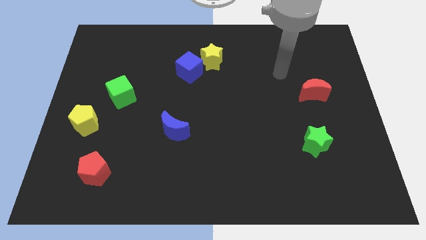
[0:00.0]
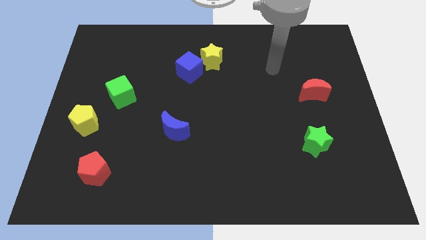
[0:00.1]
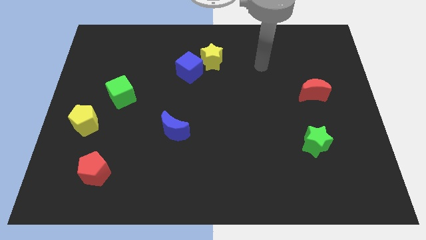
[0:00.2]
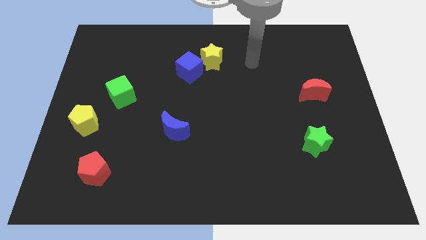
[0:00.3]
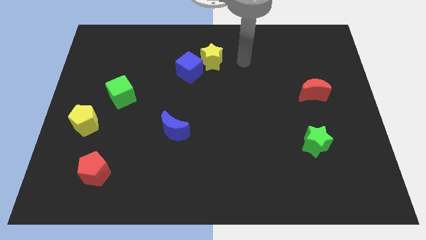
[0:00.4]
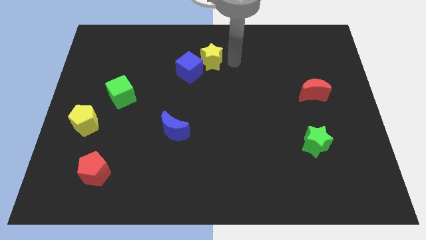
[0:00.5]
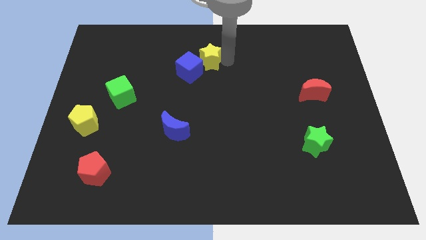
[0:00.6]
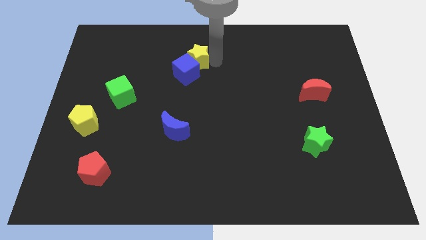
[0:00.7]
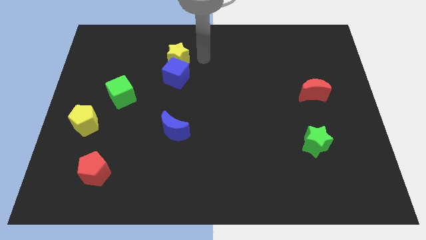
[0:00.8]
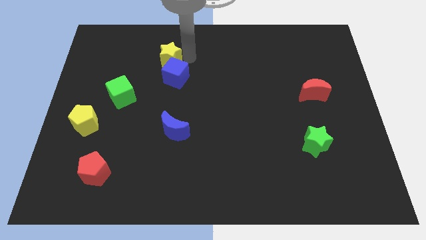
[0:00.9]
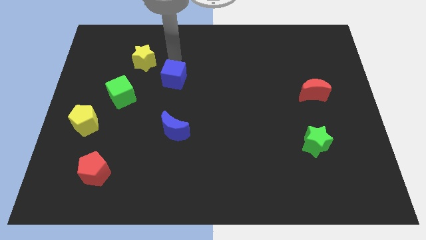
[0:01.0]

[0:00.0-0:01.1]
move the blue cube away from the yellow star

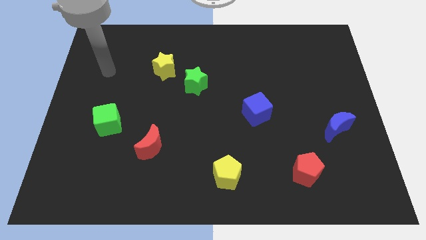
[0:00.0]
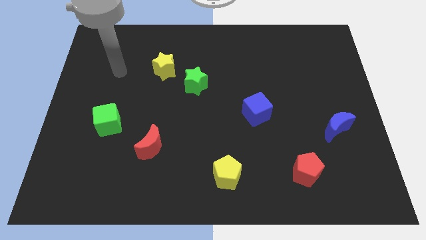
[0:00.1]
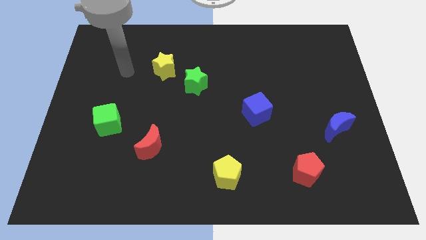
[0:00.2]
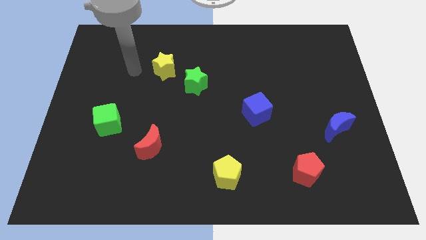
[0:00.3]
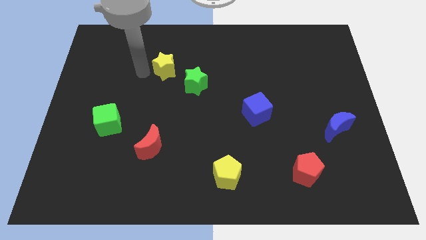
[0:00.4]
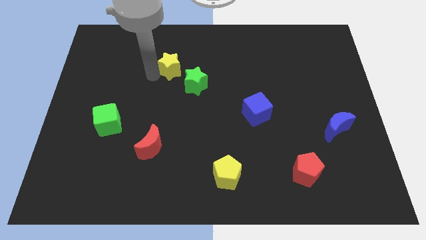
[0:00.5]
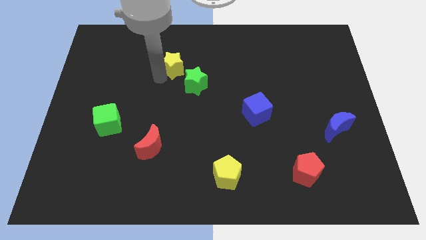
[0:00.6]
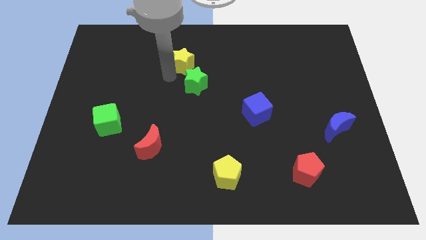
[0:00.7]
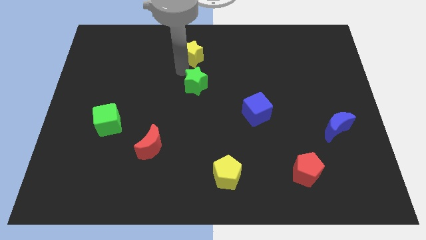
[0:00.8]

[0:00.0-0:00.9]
pull the green star apart from the yellow star

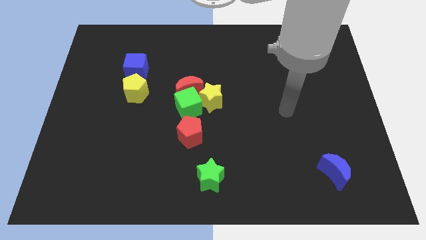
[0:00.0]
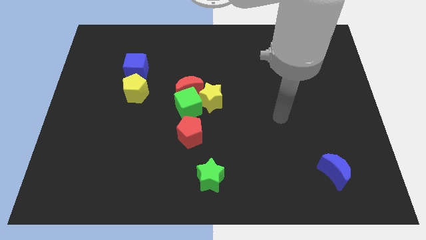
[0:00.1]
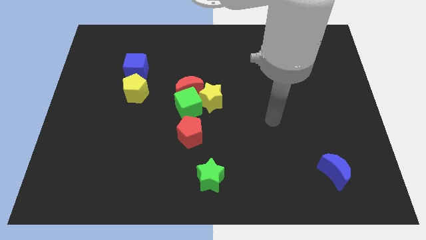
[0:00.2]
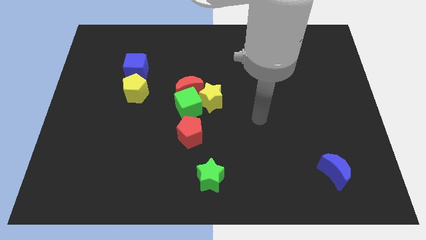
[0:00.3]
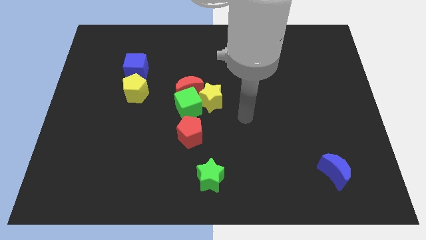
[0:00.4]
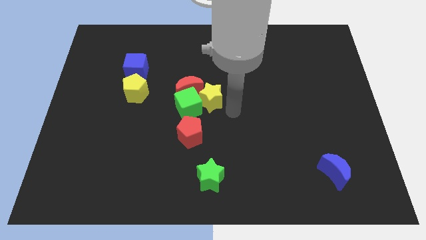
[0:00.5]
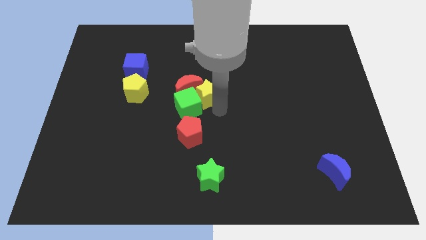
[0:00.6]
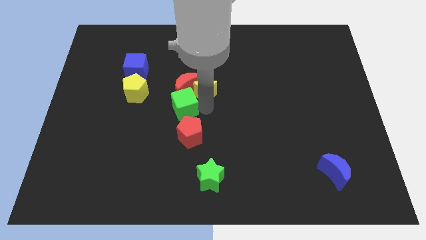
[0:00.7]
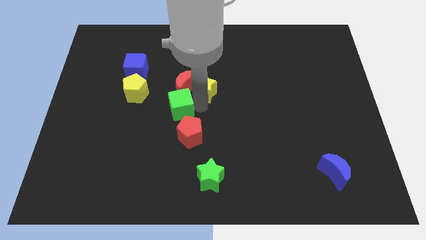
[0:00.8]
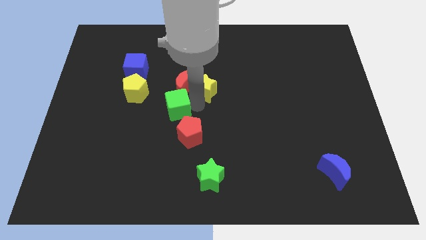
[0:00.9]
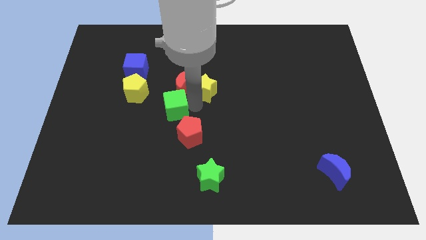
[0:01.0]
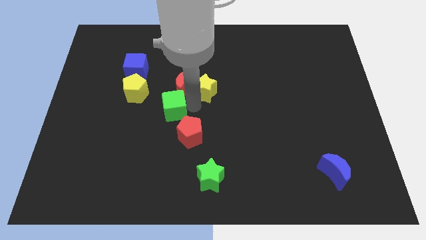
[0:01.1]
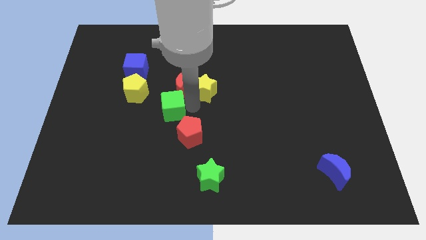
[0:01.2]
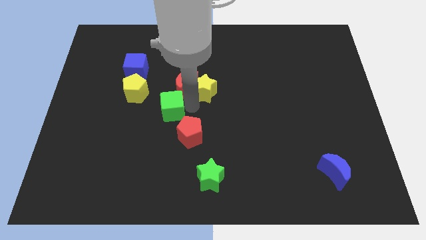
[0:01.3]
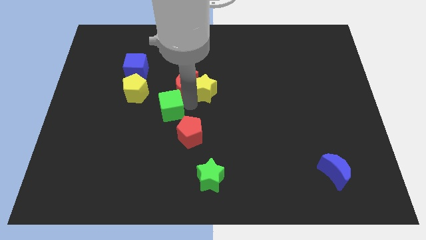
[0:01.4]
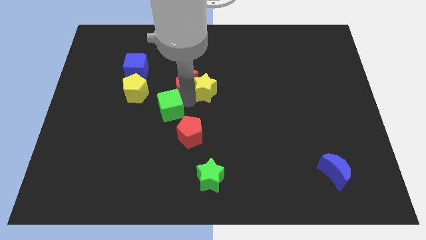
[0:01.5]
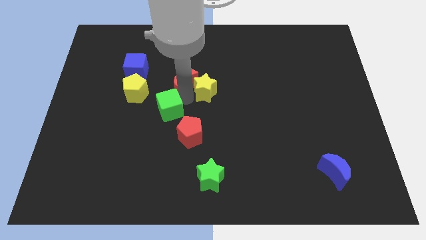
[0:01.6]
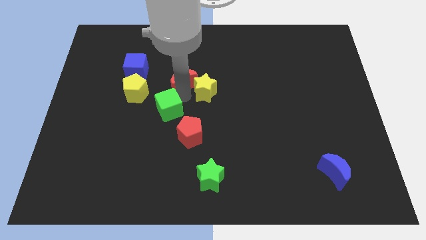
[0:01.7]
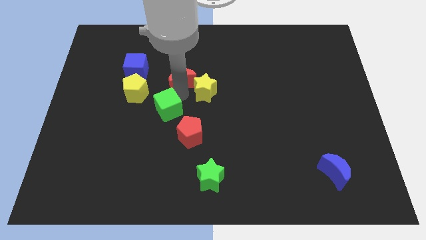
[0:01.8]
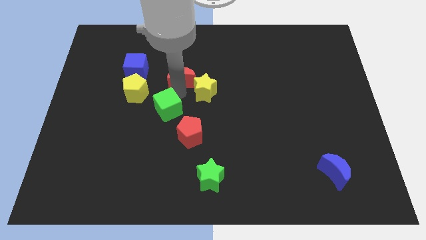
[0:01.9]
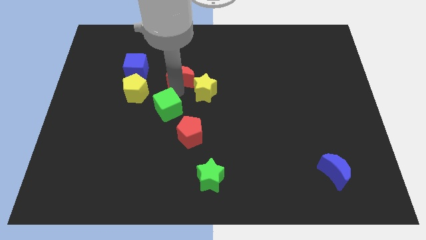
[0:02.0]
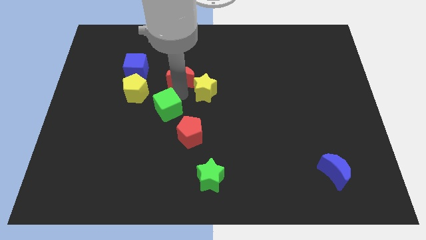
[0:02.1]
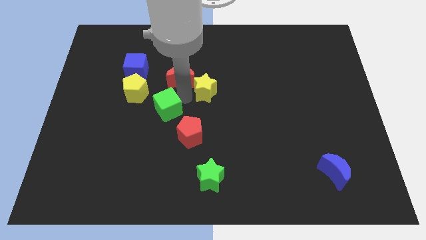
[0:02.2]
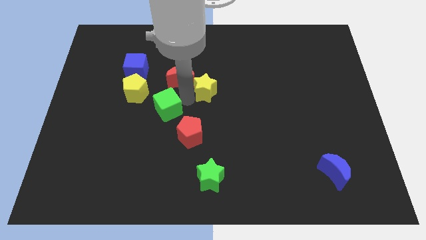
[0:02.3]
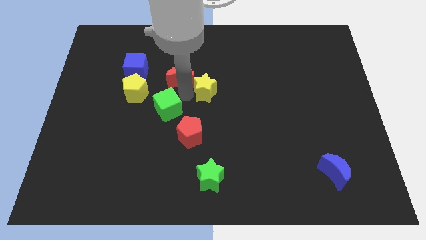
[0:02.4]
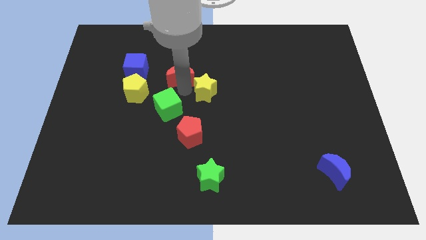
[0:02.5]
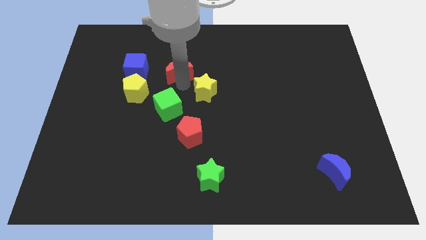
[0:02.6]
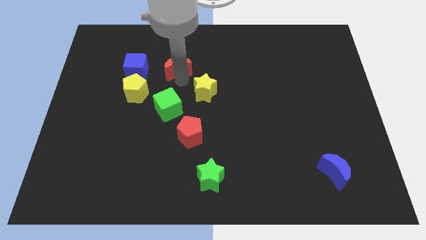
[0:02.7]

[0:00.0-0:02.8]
separate the red moon from the green cube and yellow star

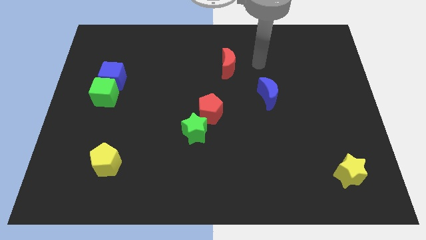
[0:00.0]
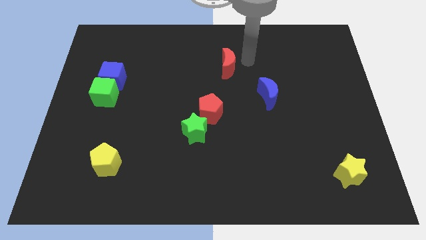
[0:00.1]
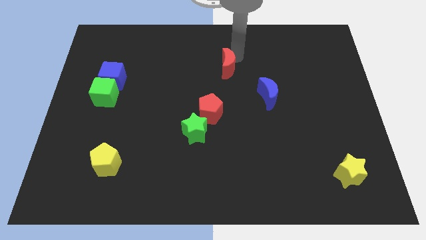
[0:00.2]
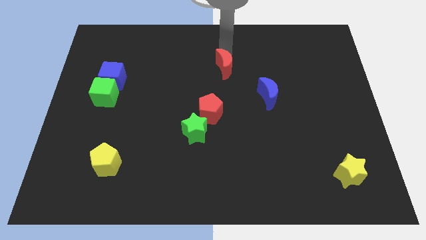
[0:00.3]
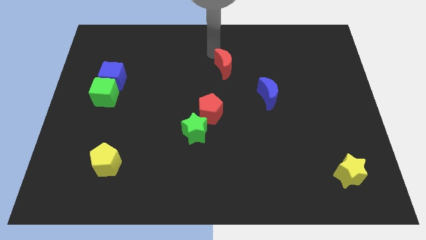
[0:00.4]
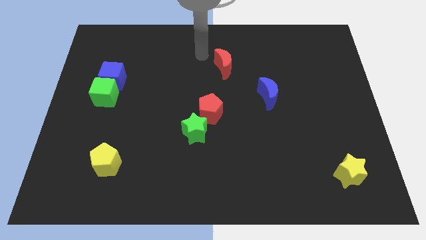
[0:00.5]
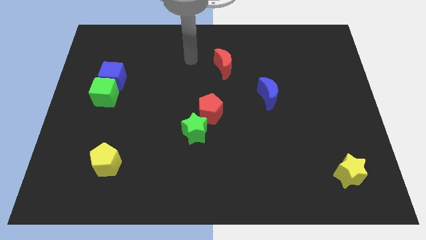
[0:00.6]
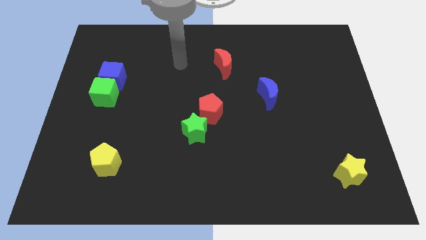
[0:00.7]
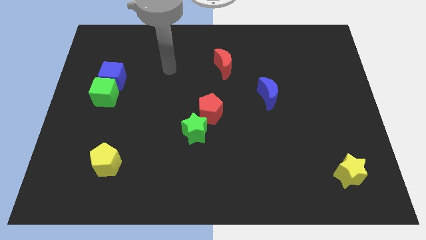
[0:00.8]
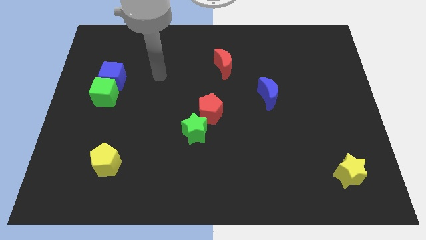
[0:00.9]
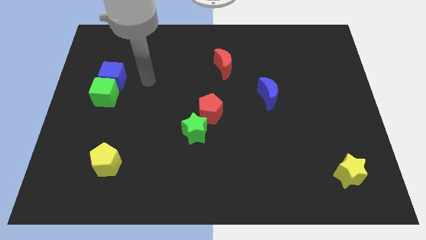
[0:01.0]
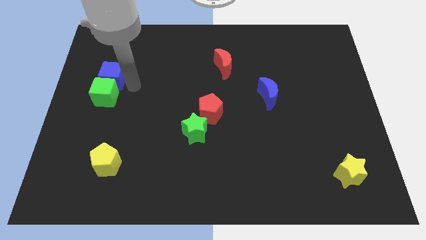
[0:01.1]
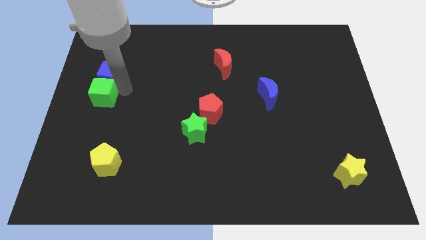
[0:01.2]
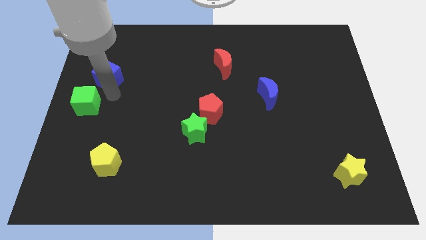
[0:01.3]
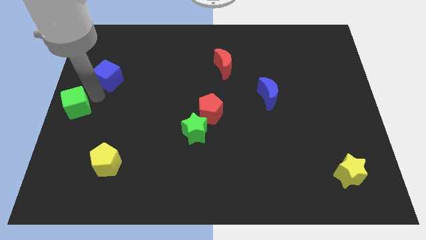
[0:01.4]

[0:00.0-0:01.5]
move the blue cube away from the green cube

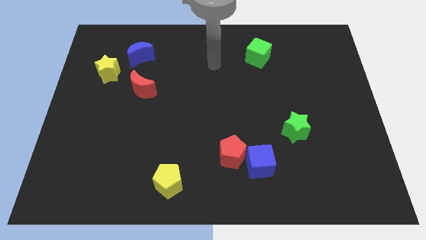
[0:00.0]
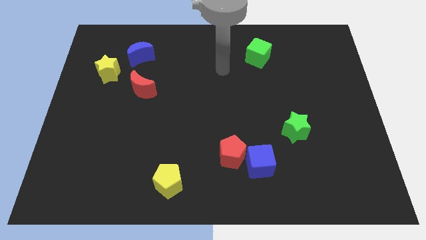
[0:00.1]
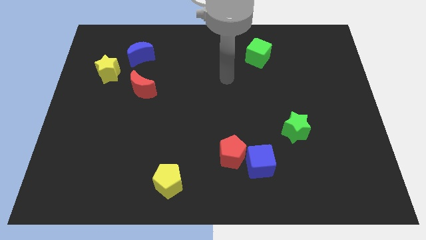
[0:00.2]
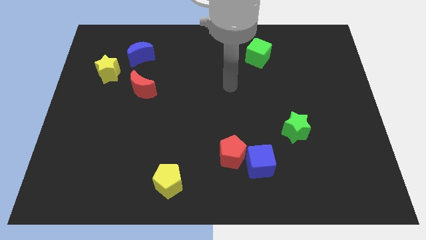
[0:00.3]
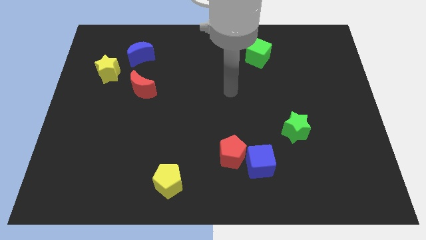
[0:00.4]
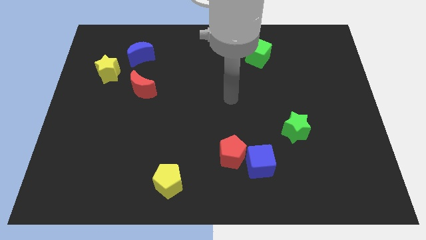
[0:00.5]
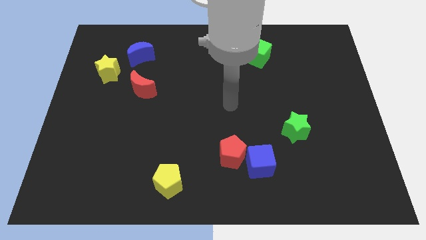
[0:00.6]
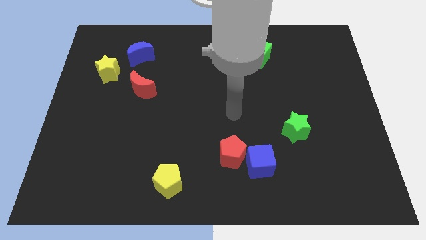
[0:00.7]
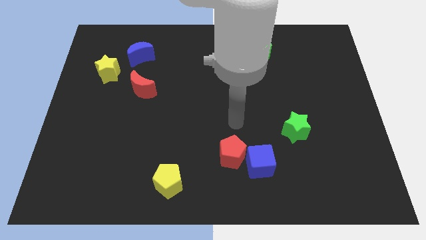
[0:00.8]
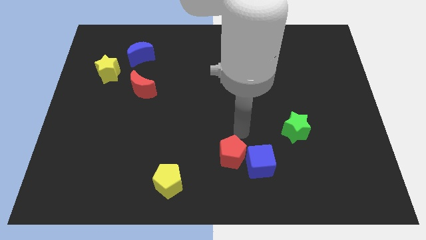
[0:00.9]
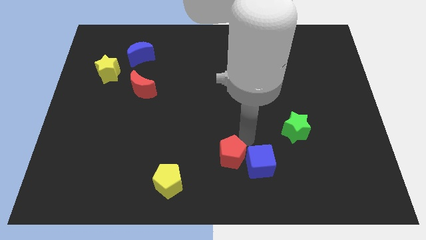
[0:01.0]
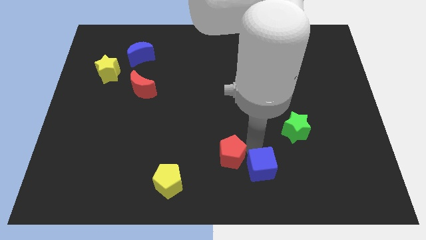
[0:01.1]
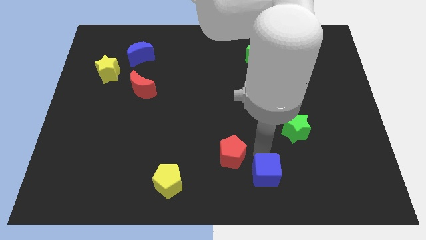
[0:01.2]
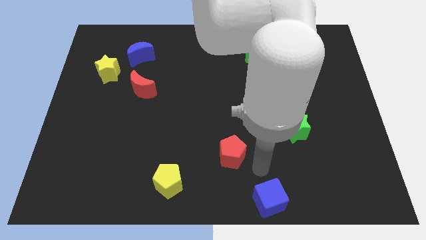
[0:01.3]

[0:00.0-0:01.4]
pull the red pentagon apart from the blue cube

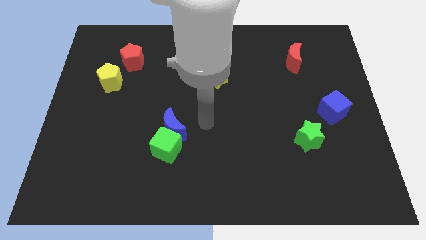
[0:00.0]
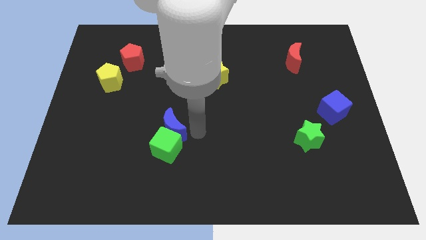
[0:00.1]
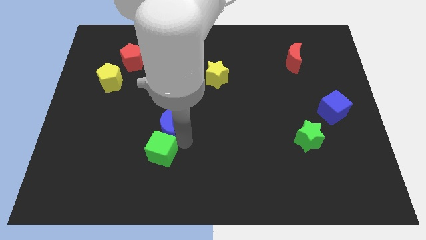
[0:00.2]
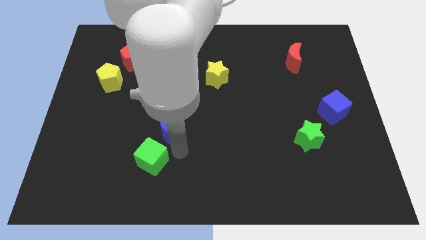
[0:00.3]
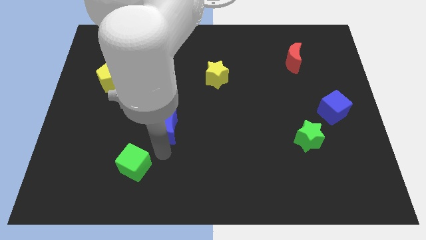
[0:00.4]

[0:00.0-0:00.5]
move the blue moon away from the green cube

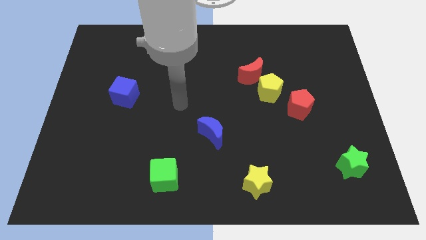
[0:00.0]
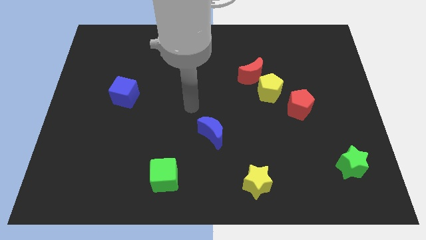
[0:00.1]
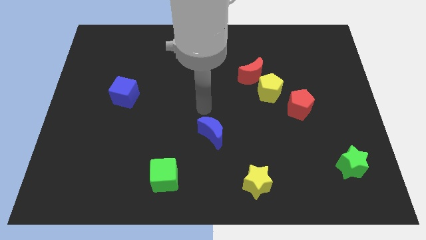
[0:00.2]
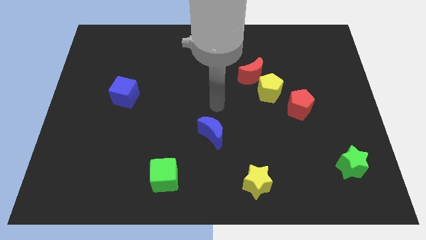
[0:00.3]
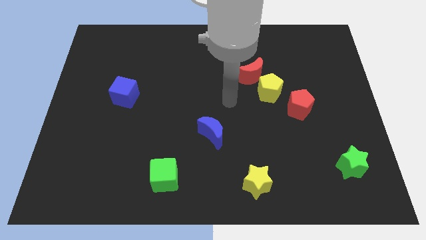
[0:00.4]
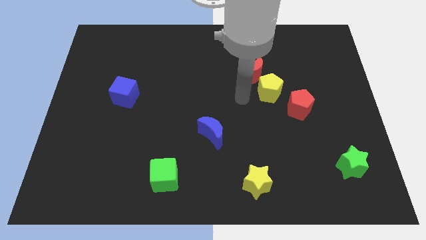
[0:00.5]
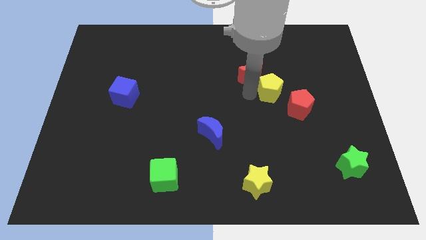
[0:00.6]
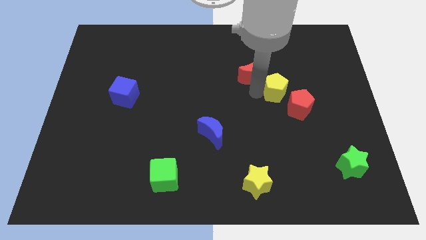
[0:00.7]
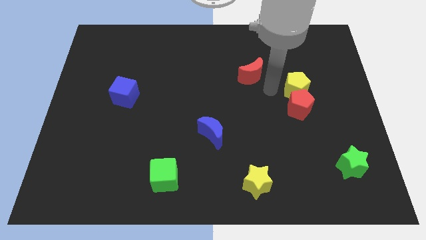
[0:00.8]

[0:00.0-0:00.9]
move the red moon away from the yellow pentagon

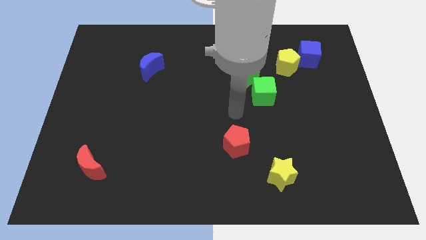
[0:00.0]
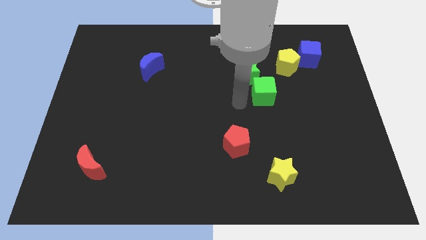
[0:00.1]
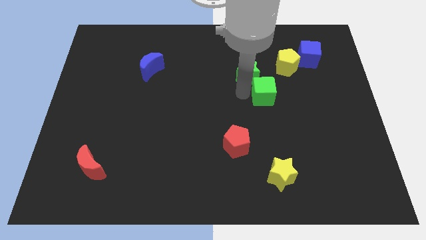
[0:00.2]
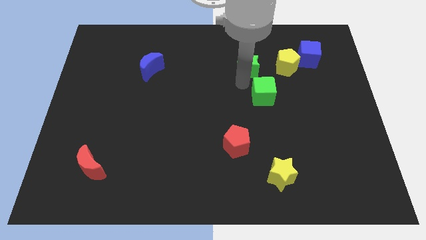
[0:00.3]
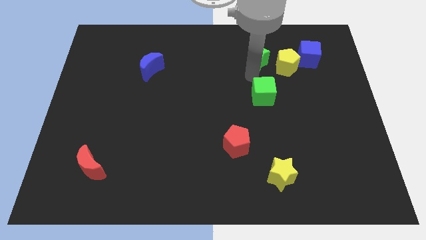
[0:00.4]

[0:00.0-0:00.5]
separate the green cube from the green star
